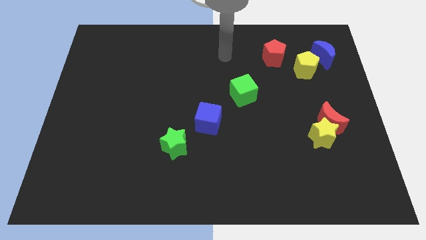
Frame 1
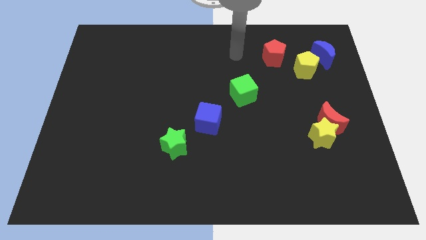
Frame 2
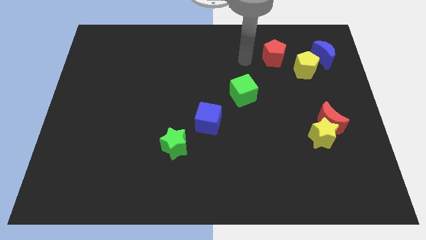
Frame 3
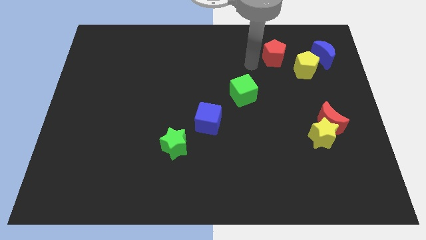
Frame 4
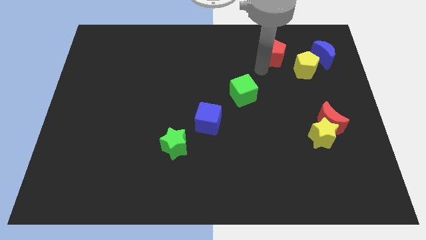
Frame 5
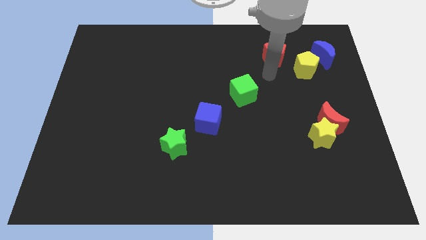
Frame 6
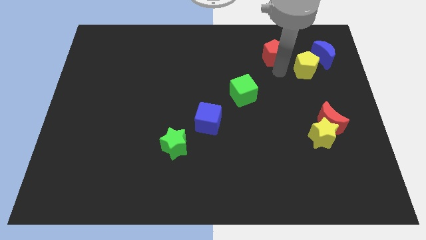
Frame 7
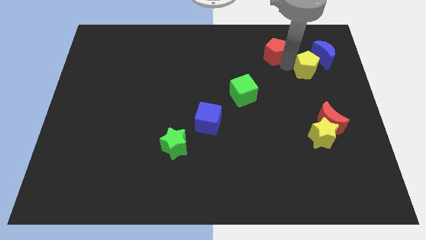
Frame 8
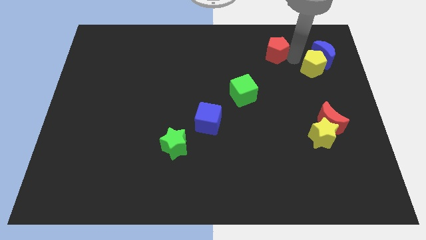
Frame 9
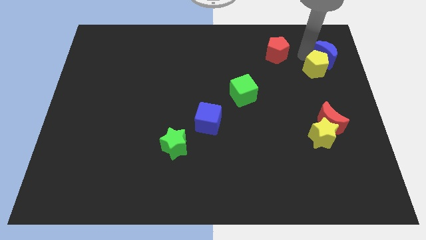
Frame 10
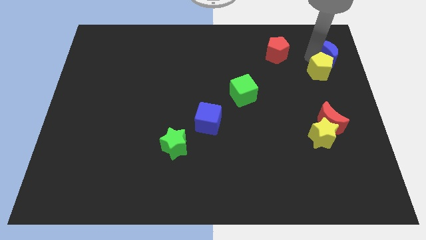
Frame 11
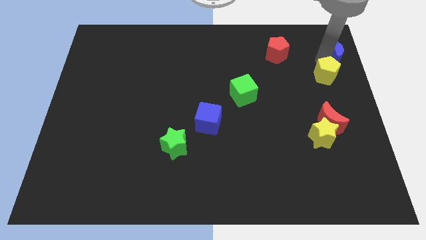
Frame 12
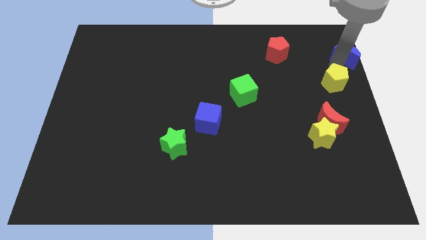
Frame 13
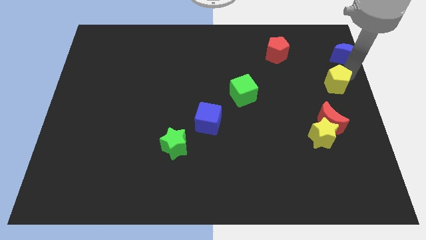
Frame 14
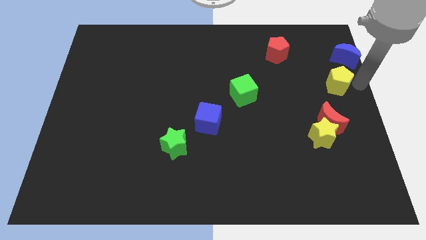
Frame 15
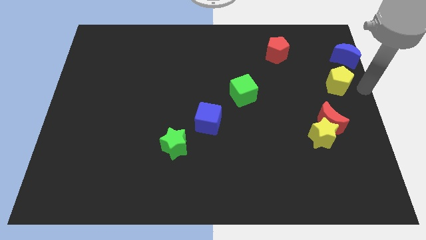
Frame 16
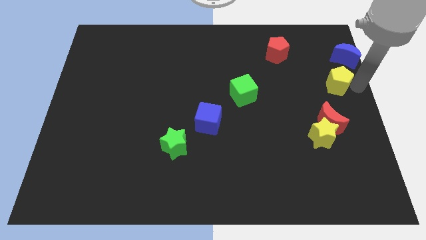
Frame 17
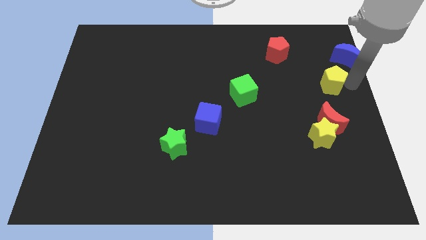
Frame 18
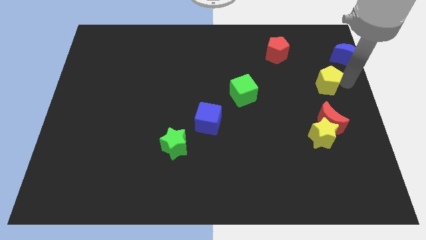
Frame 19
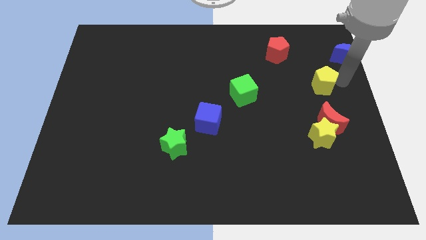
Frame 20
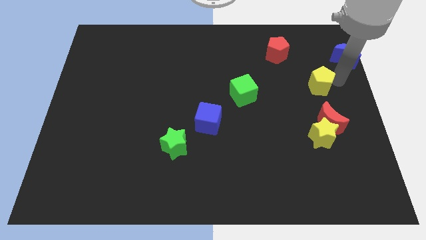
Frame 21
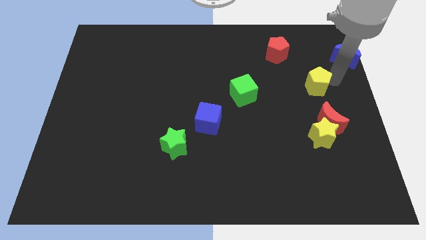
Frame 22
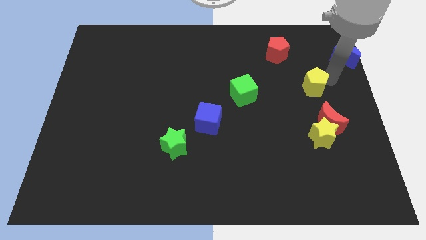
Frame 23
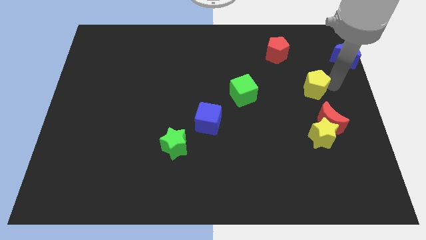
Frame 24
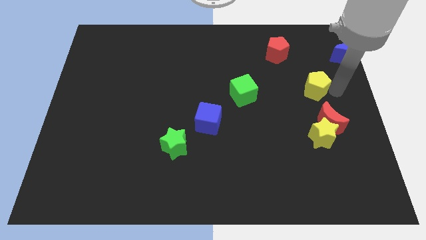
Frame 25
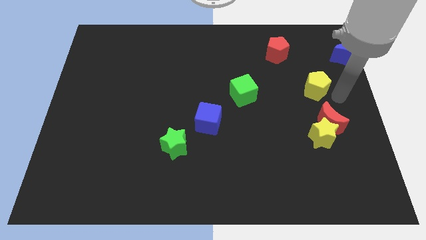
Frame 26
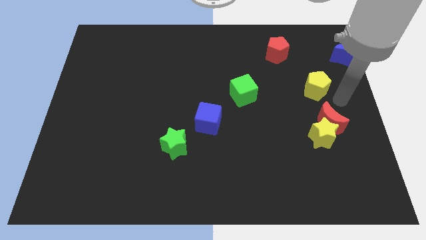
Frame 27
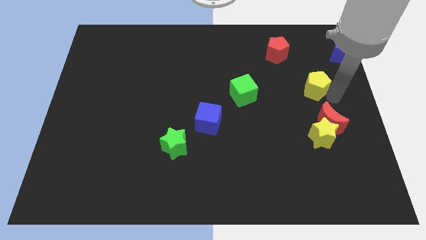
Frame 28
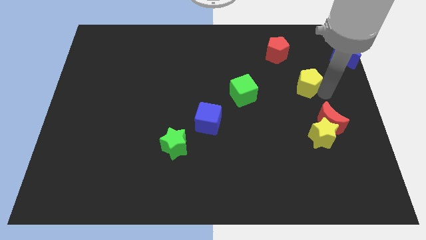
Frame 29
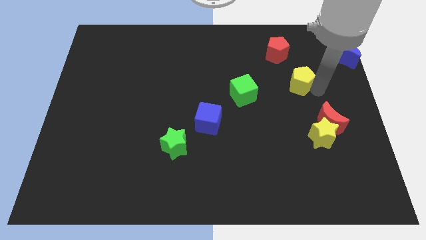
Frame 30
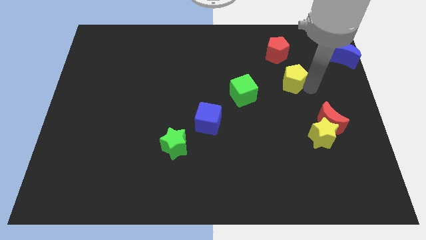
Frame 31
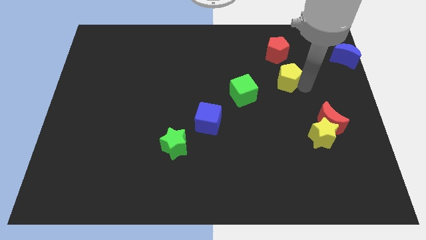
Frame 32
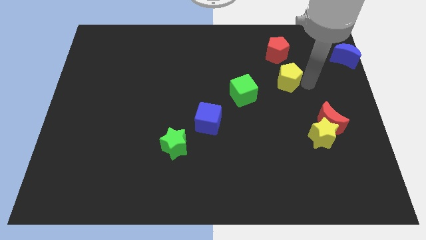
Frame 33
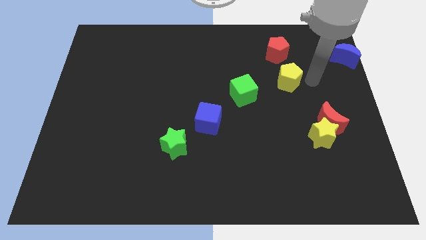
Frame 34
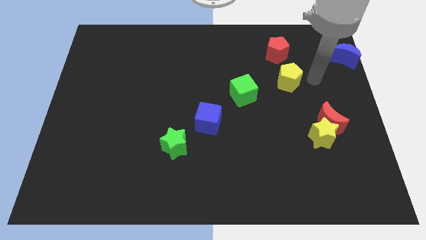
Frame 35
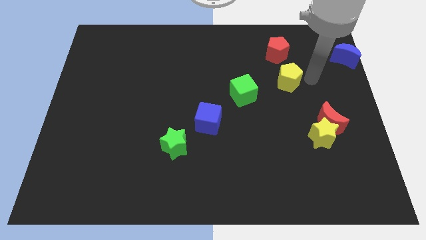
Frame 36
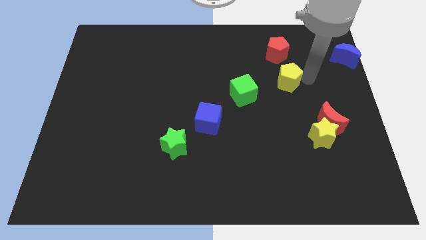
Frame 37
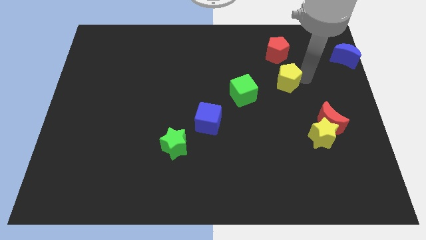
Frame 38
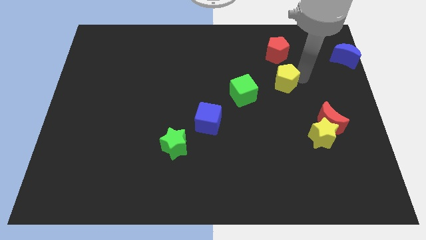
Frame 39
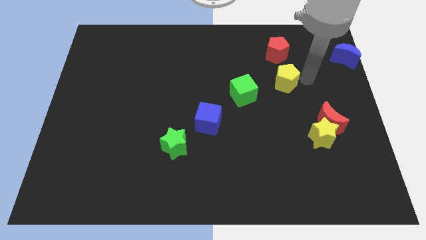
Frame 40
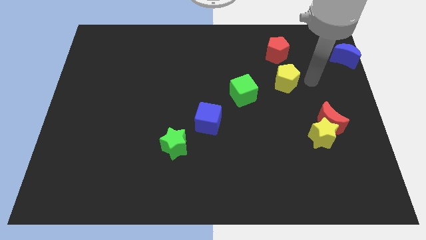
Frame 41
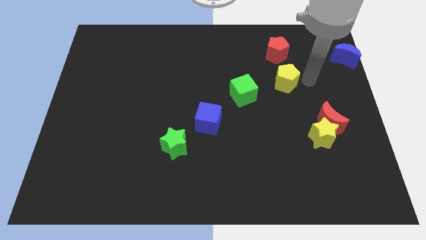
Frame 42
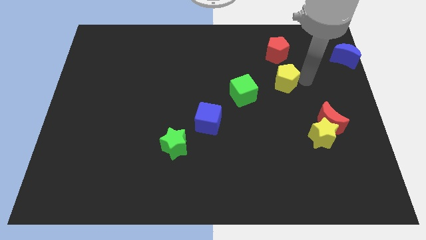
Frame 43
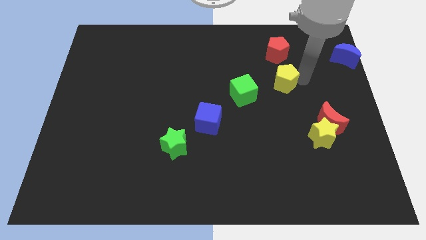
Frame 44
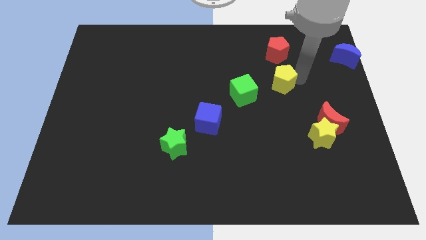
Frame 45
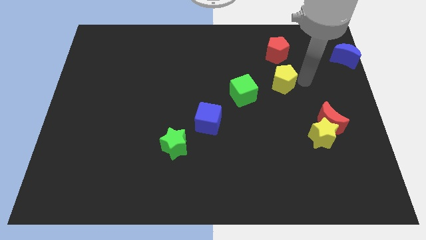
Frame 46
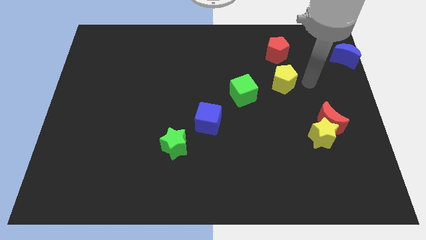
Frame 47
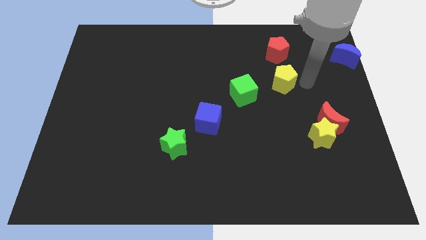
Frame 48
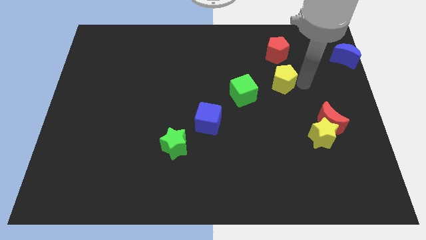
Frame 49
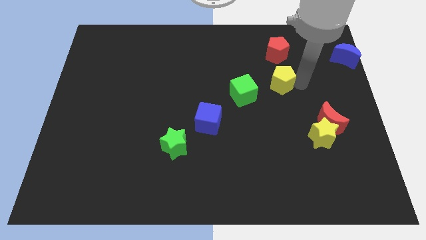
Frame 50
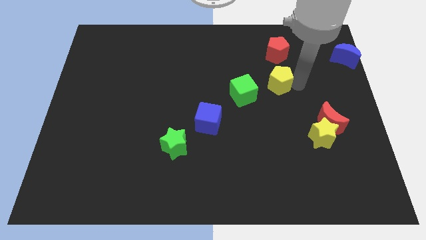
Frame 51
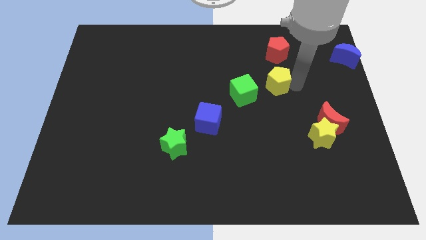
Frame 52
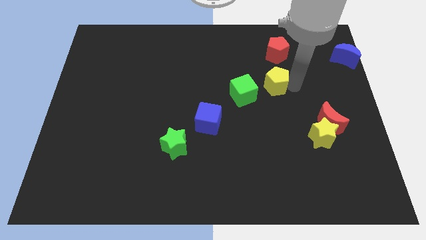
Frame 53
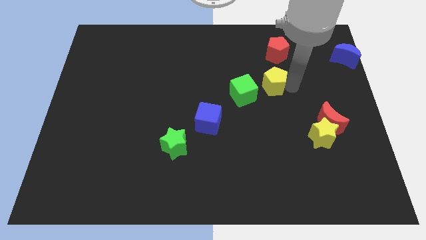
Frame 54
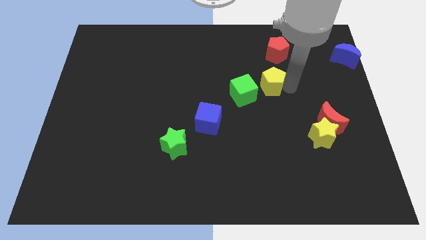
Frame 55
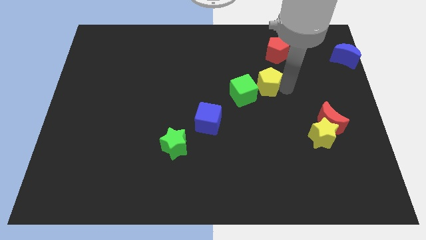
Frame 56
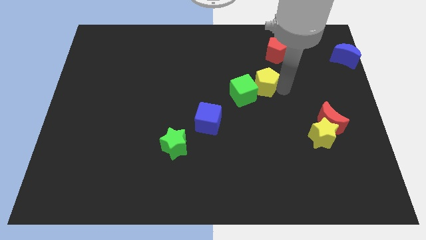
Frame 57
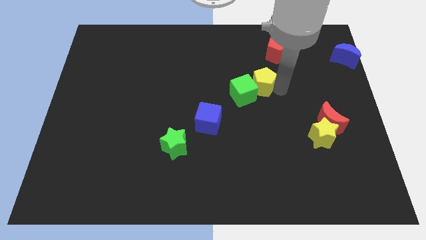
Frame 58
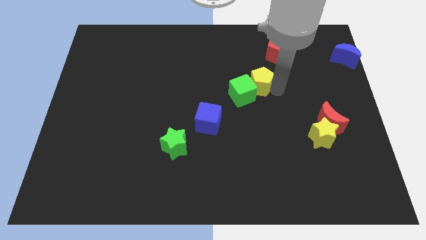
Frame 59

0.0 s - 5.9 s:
slide the yellow pentagon to the center

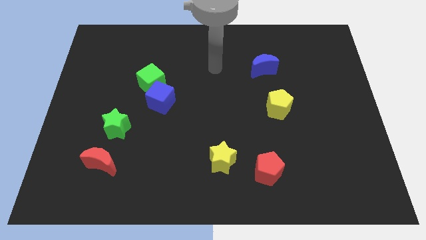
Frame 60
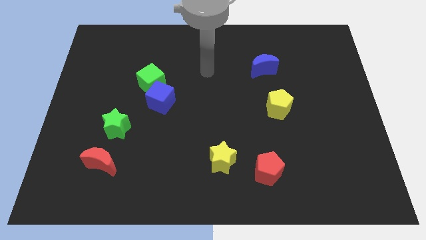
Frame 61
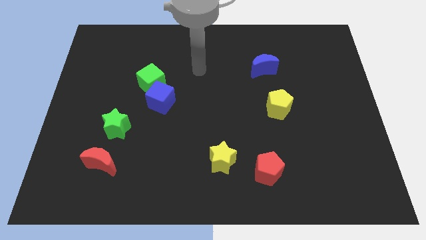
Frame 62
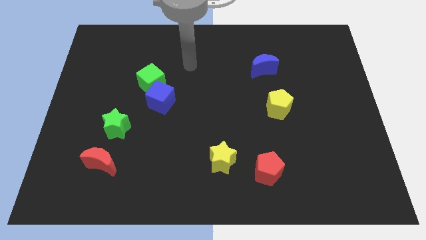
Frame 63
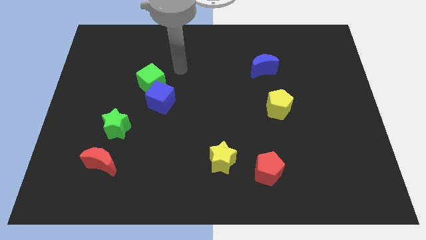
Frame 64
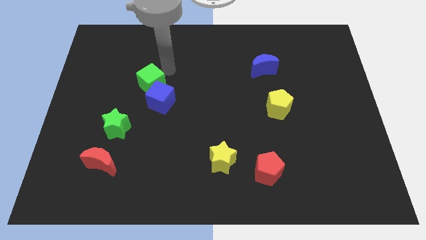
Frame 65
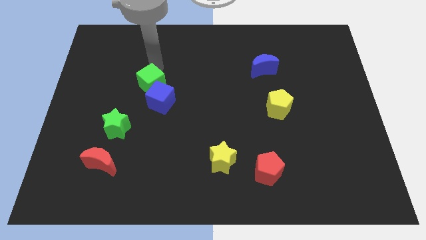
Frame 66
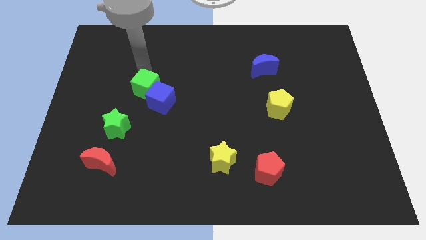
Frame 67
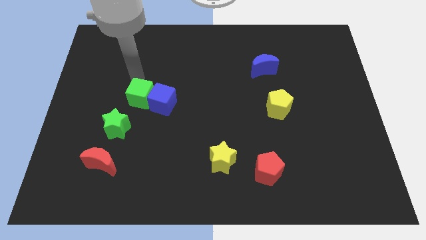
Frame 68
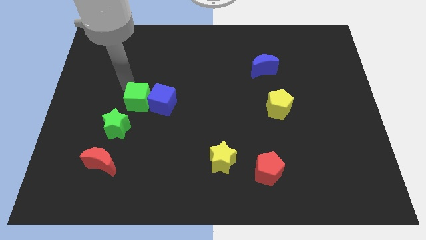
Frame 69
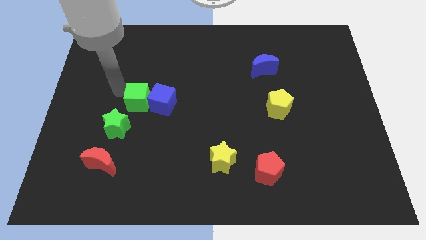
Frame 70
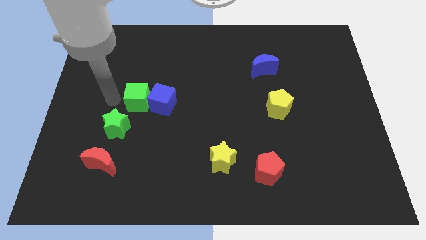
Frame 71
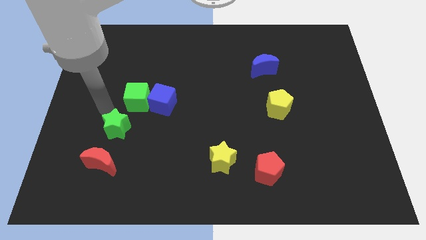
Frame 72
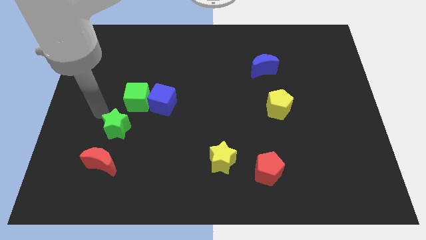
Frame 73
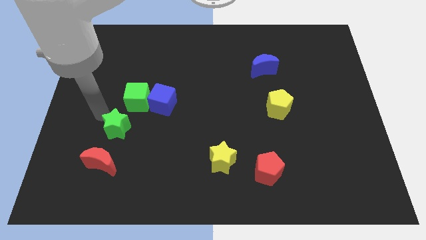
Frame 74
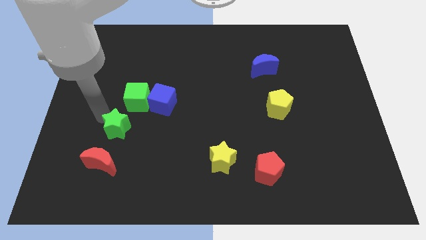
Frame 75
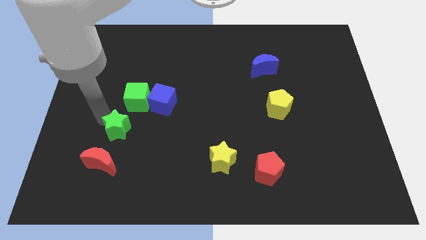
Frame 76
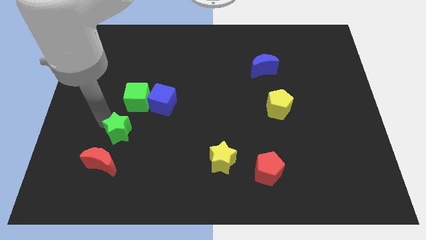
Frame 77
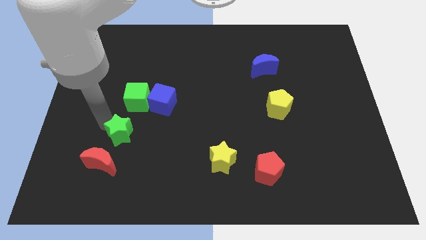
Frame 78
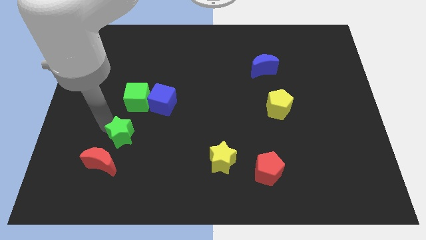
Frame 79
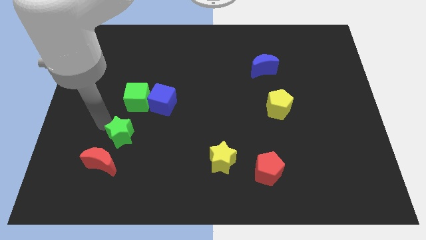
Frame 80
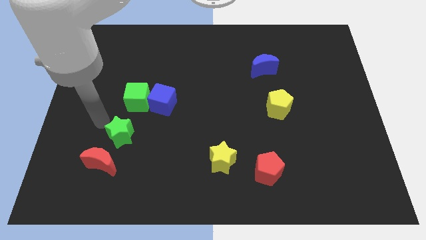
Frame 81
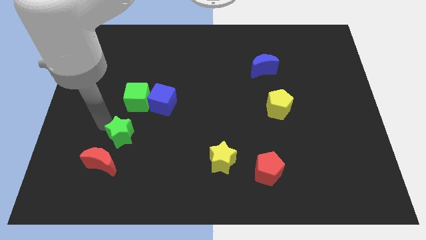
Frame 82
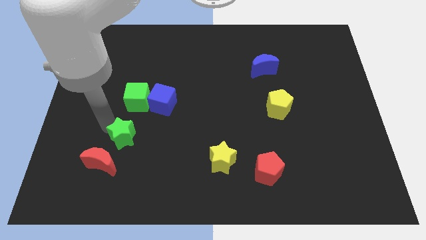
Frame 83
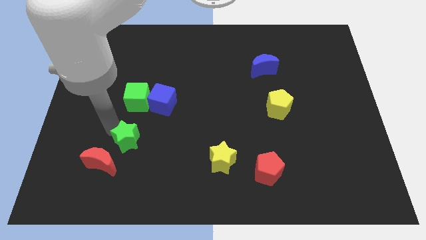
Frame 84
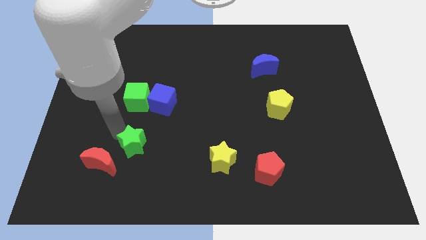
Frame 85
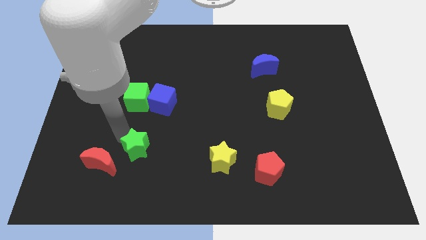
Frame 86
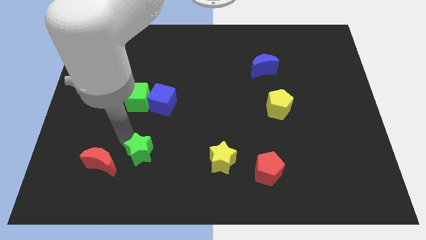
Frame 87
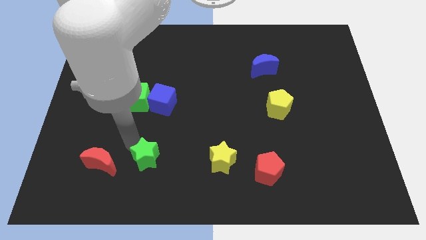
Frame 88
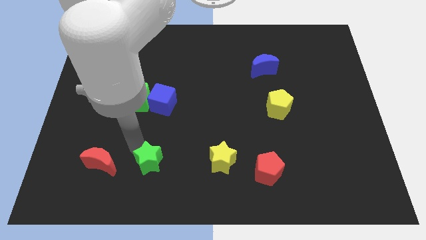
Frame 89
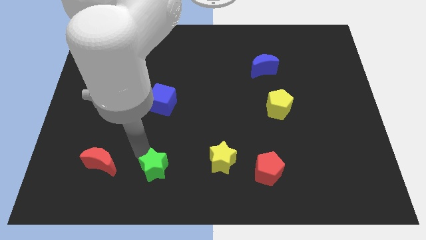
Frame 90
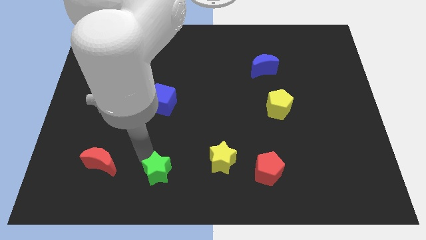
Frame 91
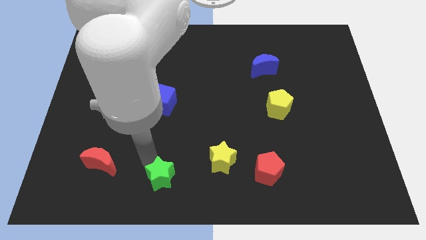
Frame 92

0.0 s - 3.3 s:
push the green star to the bottom side
